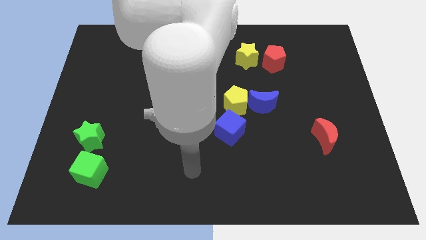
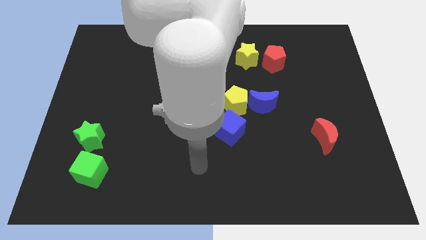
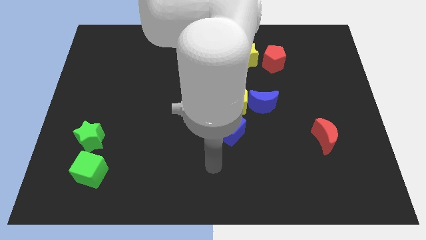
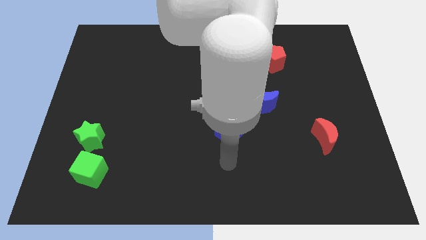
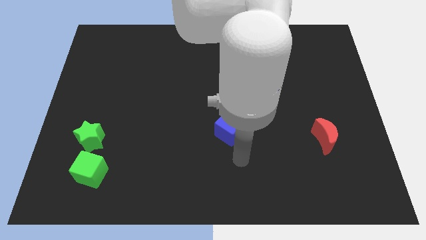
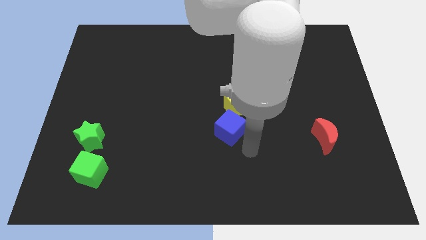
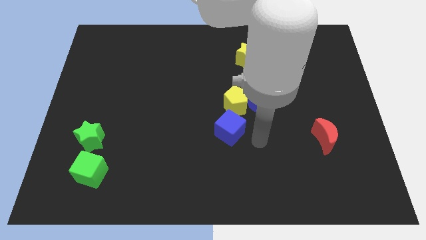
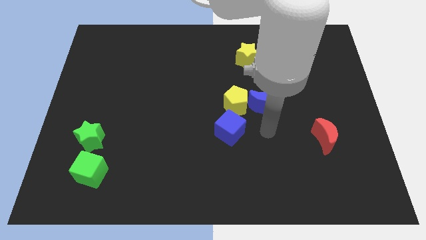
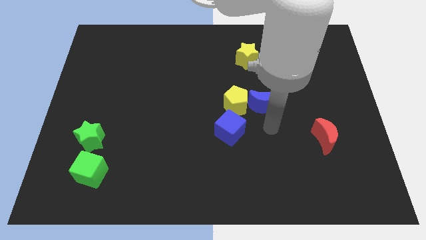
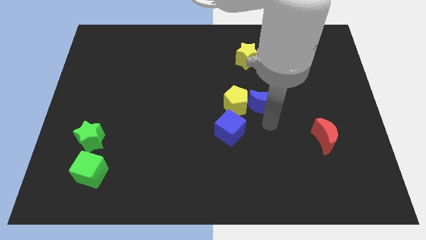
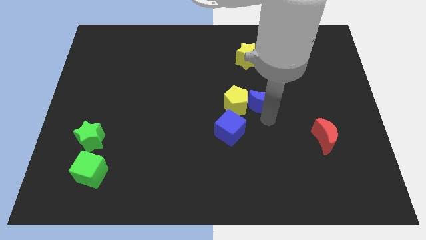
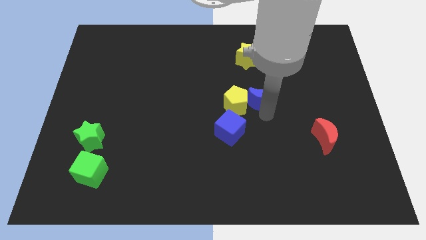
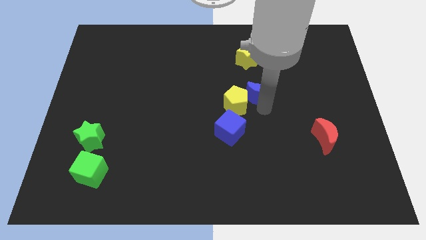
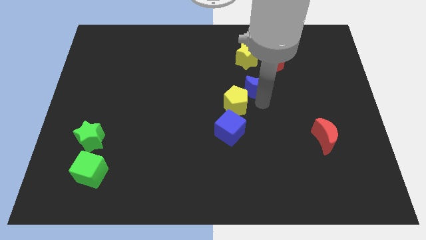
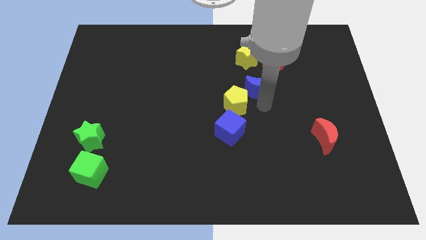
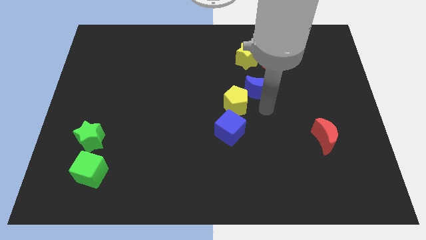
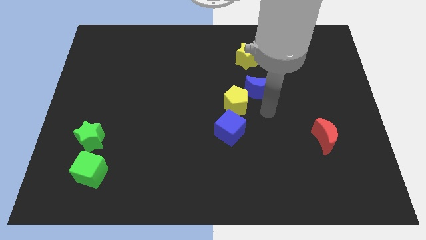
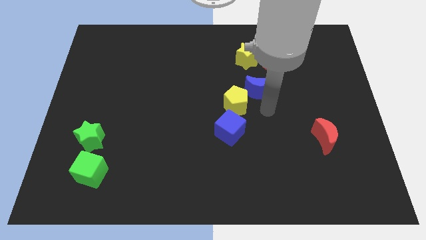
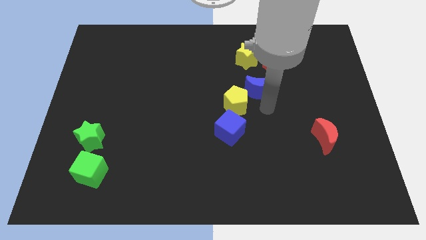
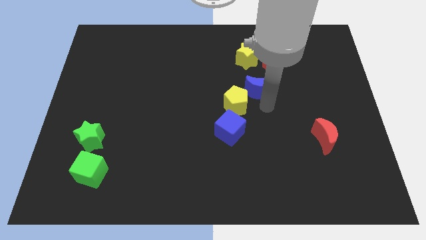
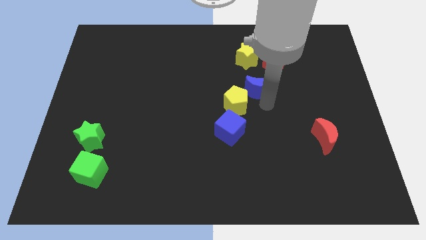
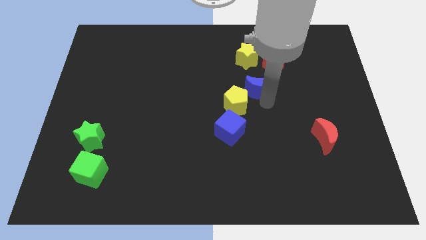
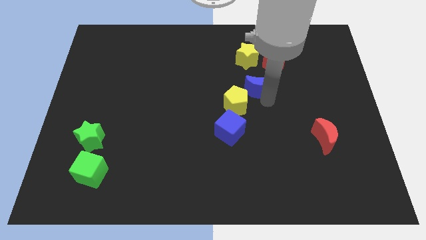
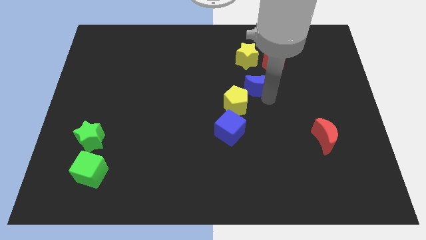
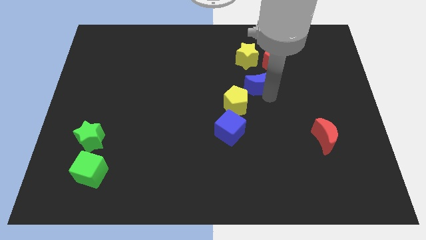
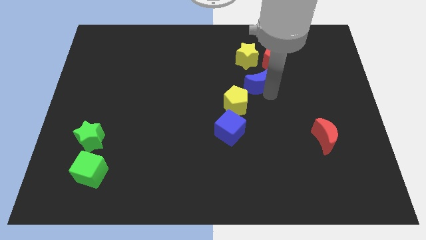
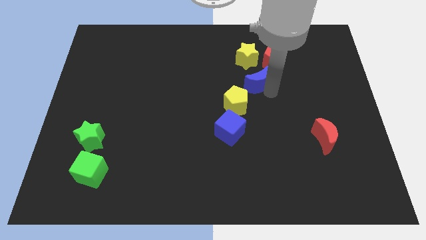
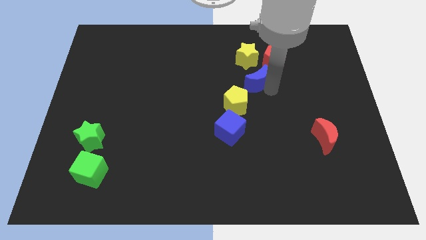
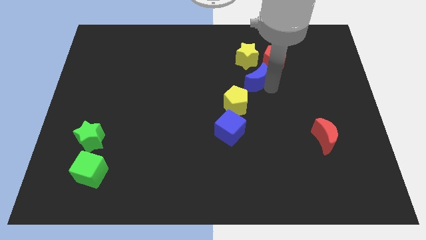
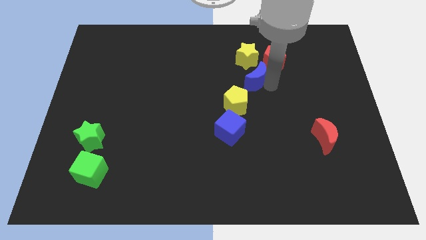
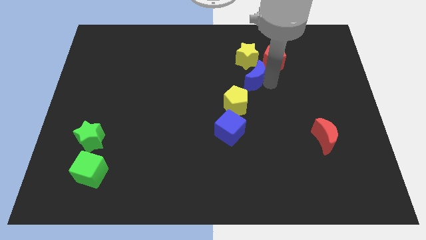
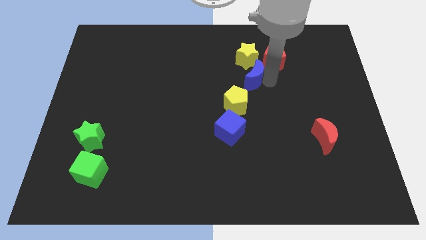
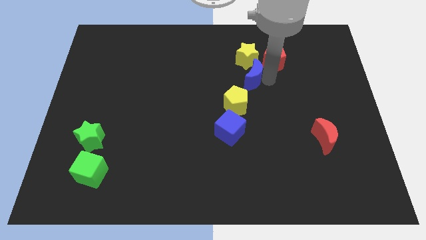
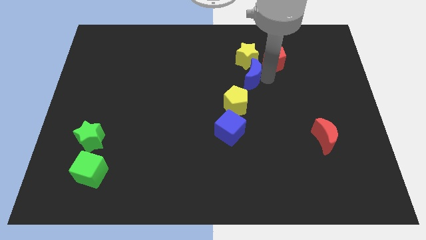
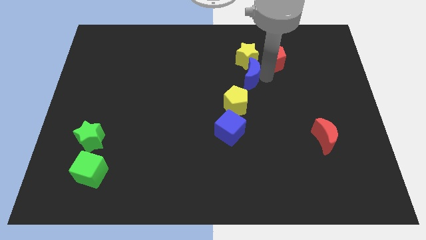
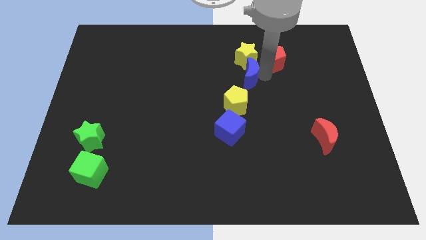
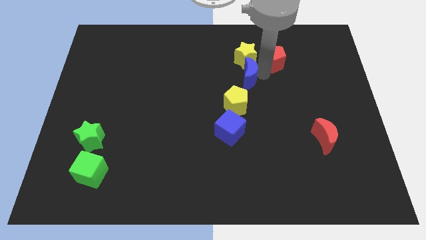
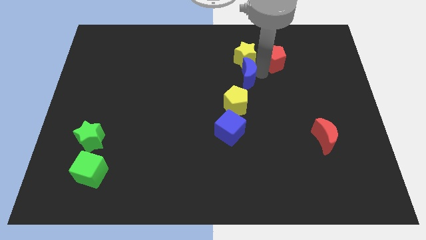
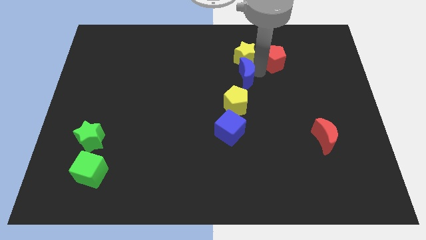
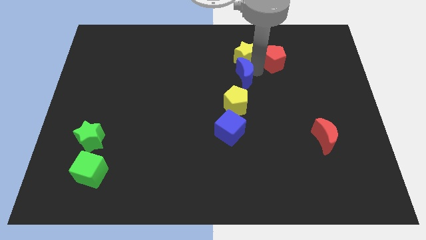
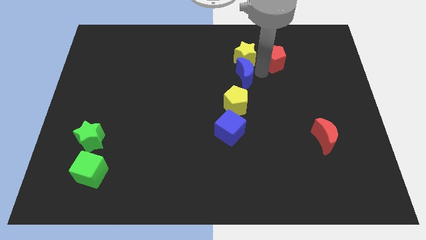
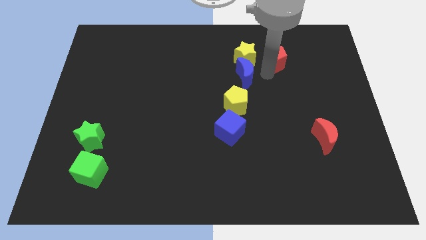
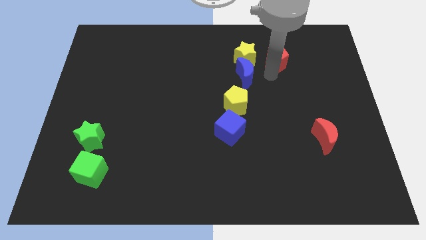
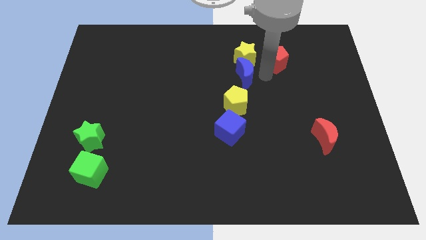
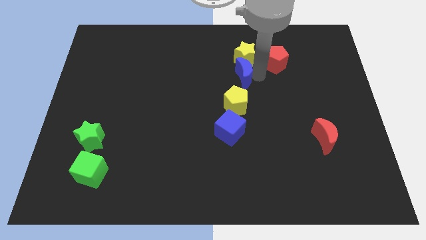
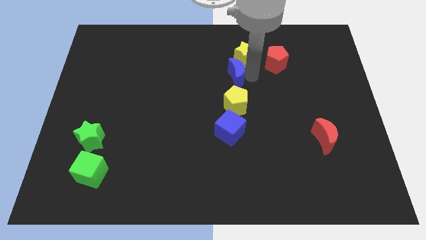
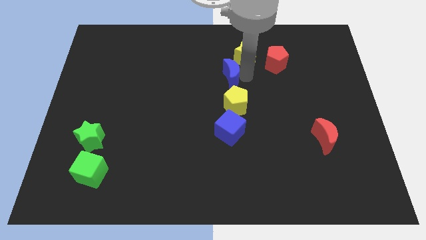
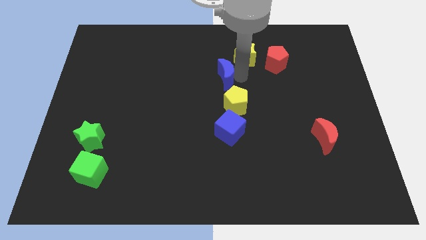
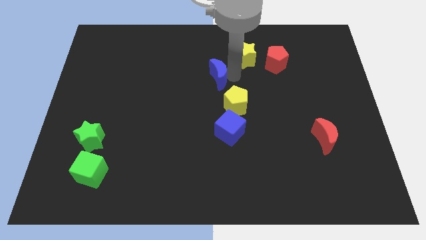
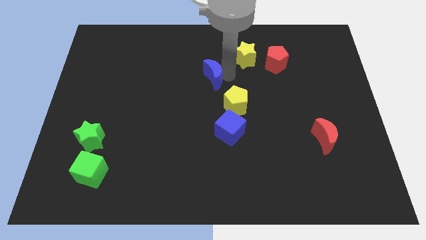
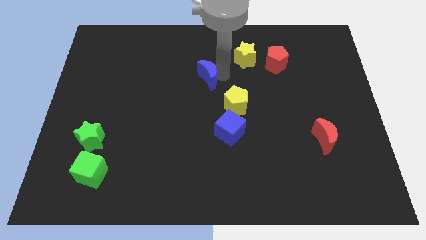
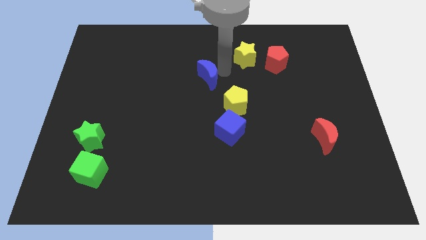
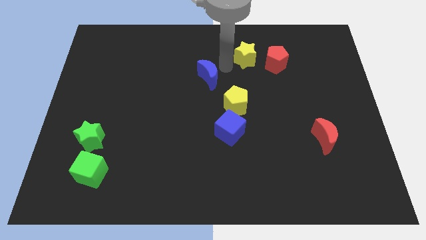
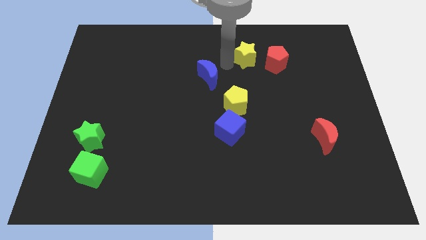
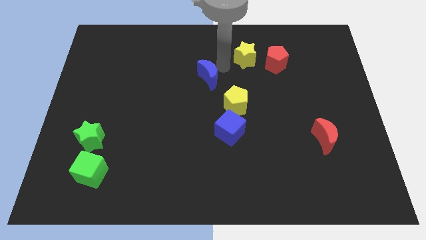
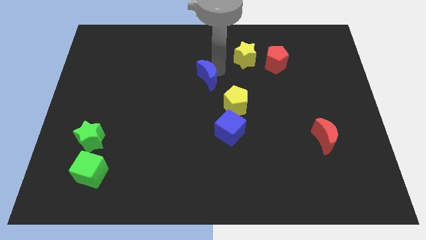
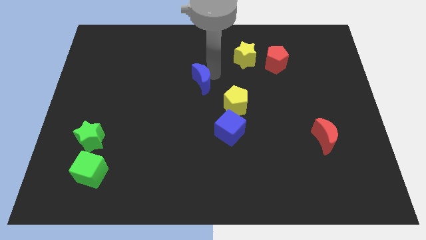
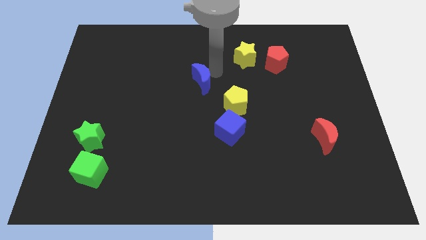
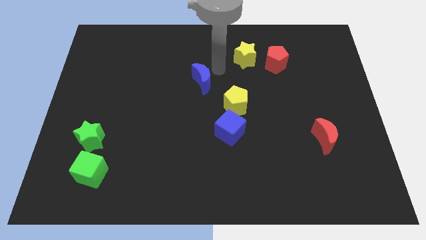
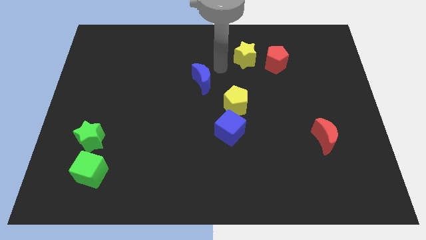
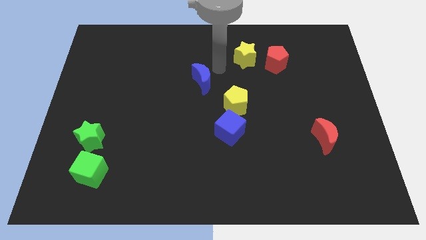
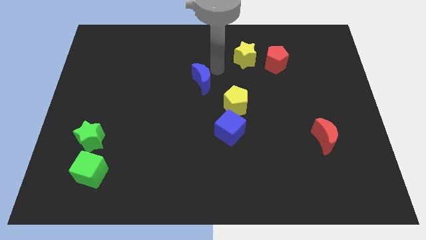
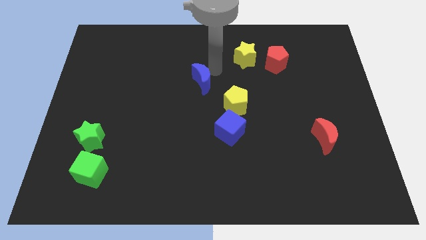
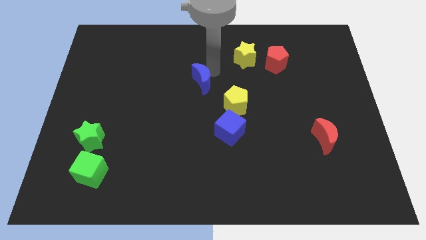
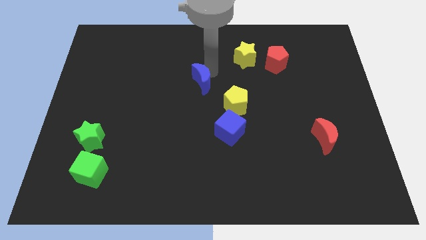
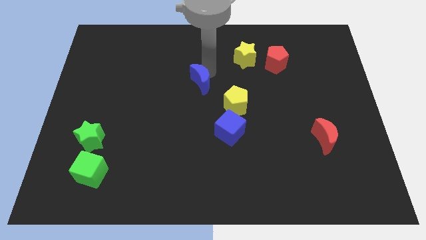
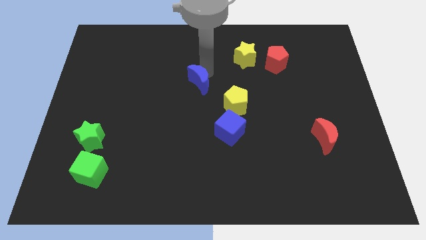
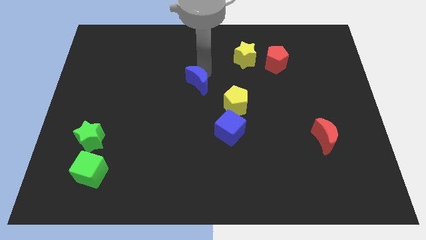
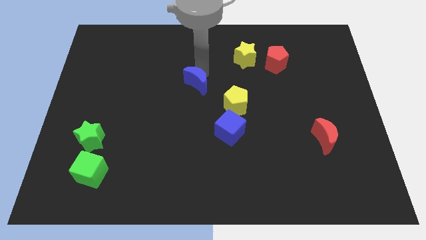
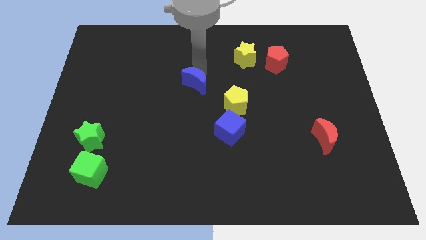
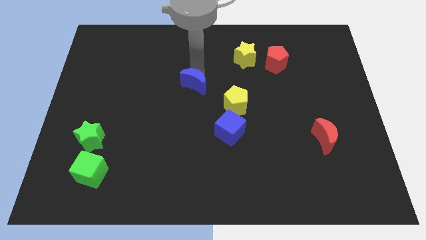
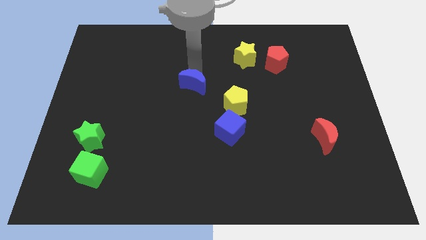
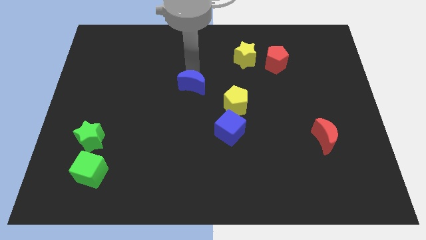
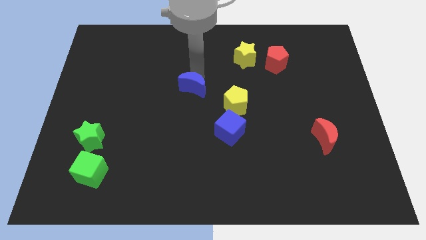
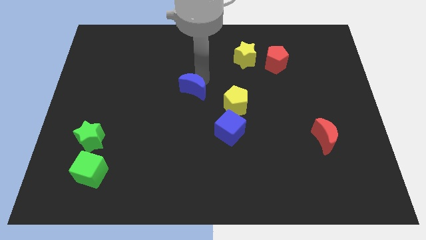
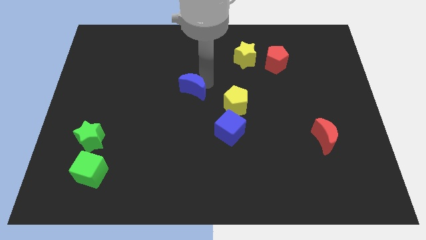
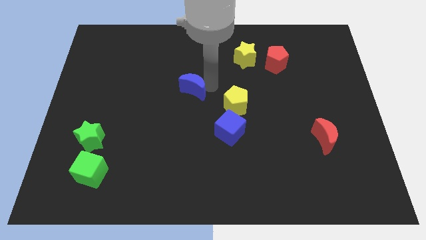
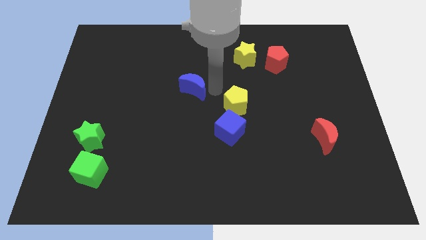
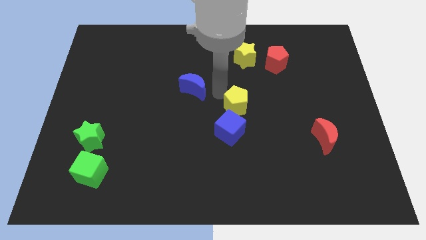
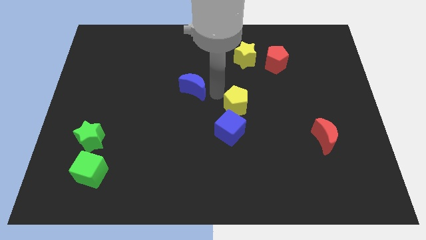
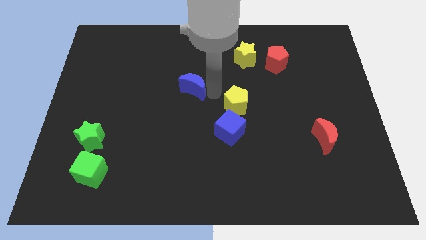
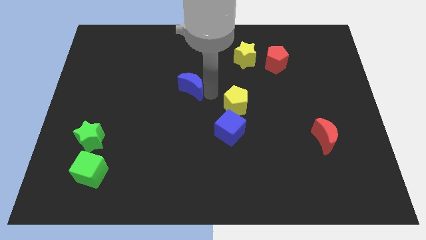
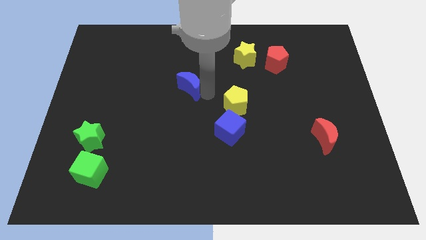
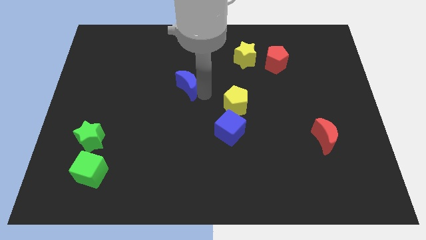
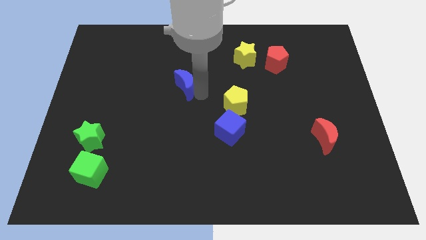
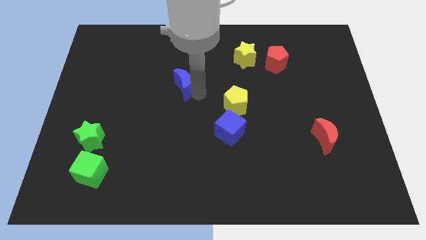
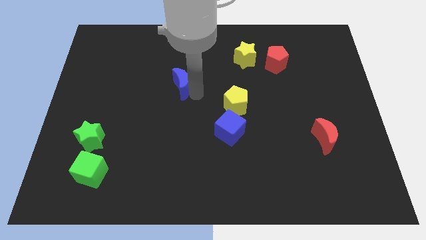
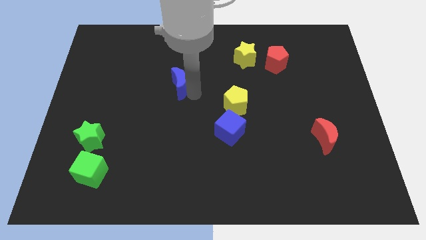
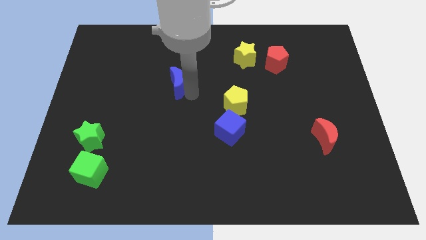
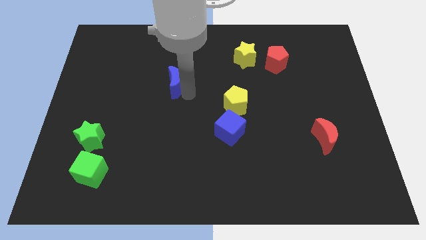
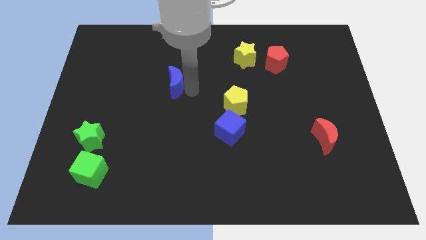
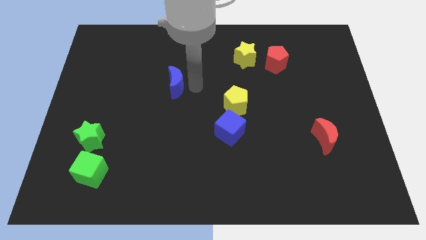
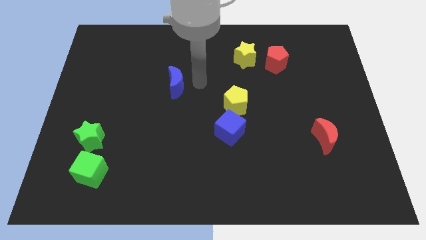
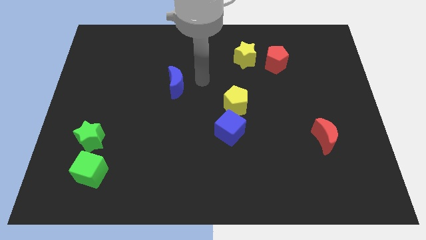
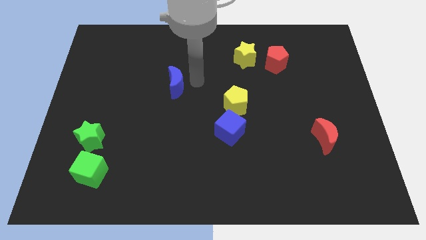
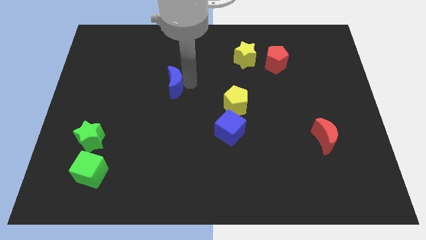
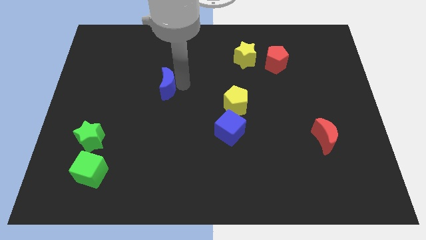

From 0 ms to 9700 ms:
move the blue moon to the left
